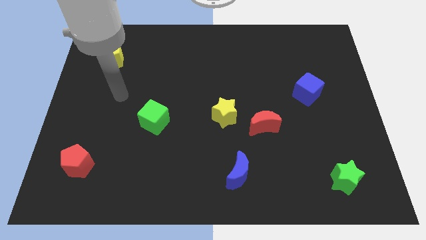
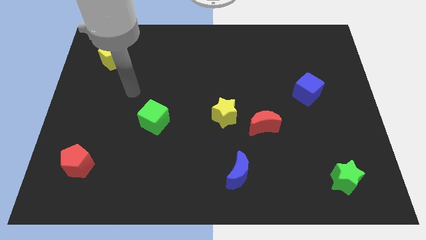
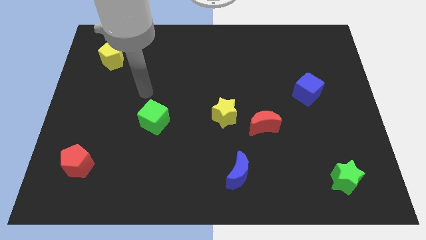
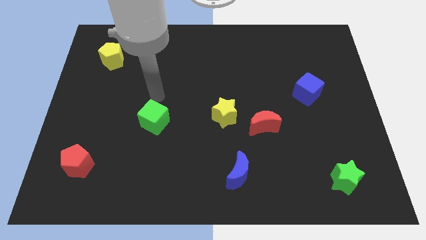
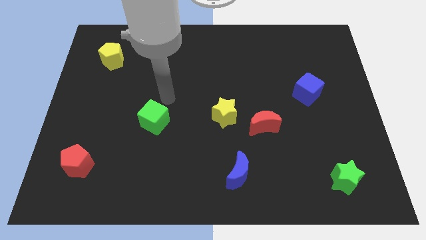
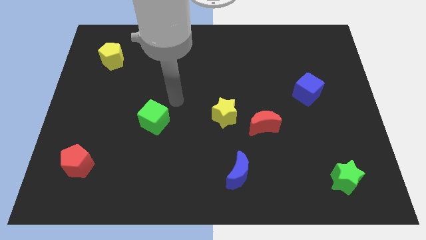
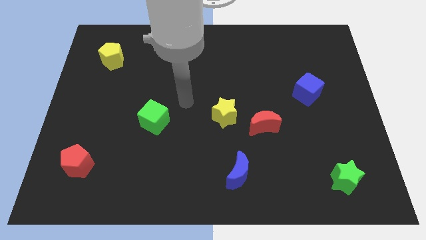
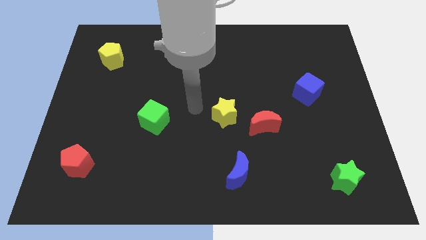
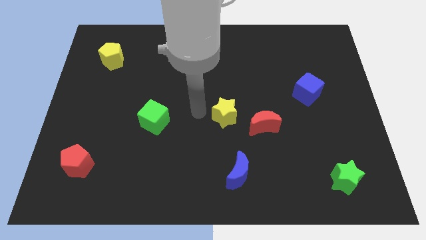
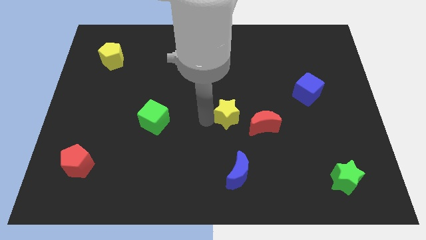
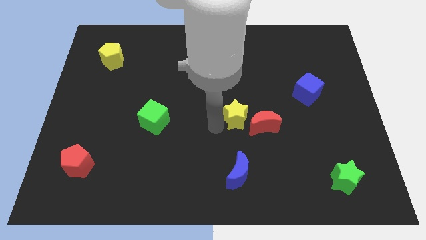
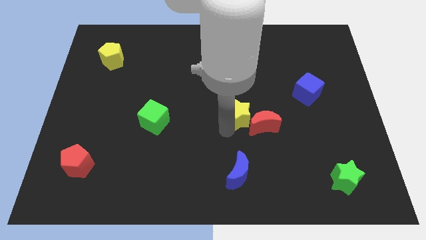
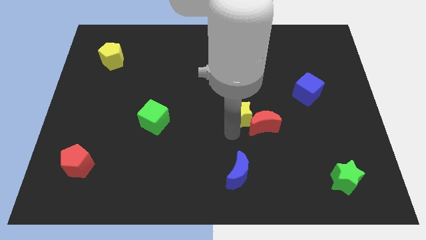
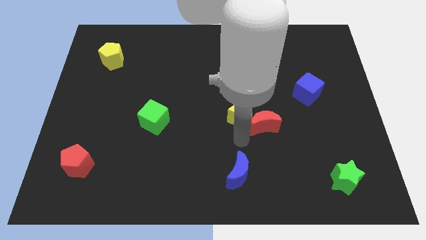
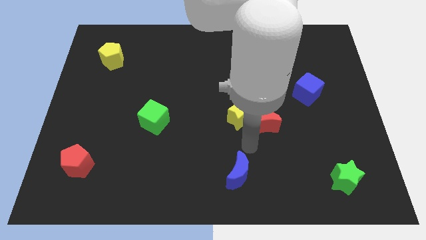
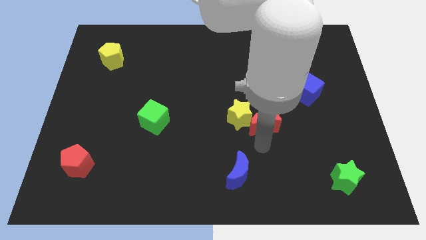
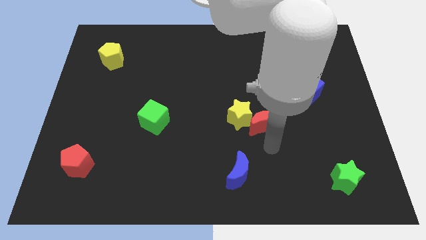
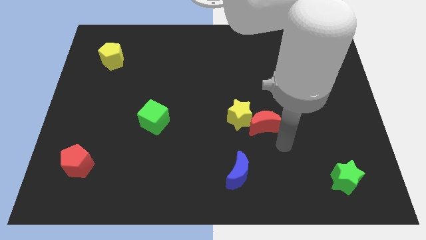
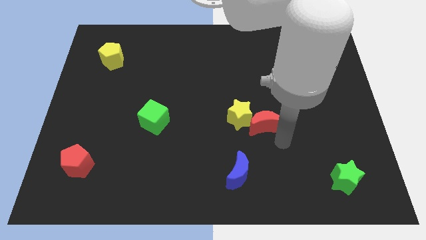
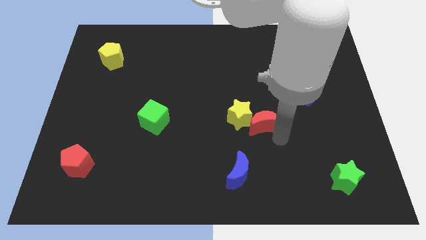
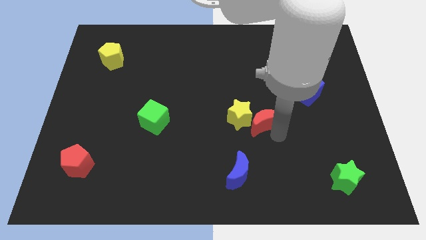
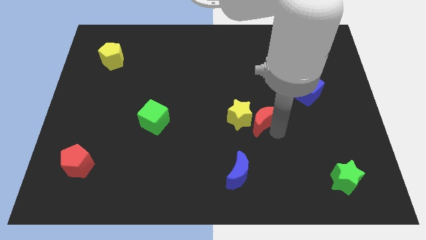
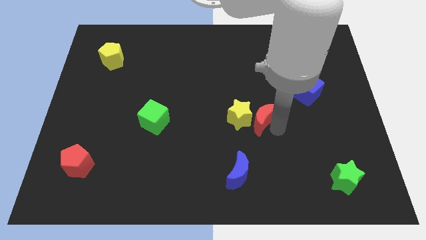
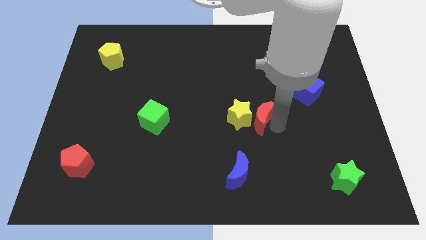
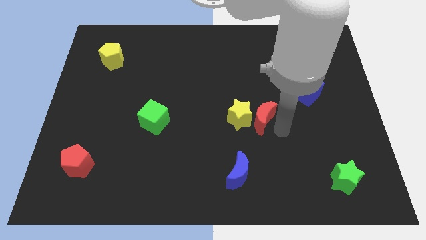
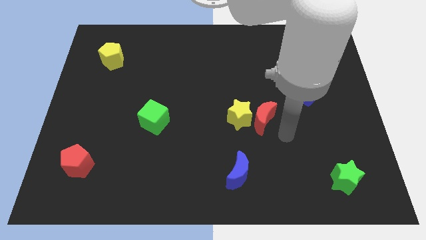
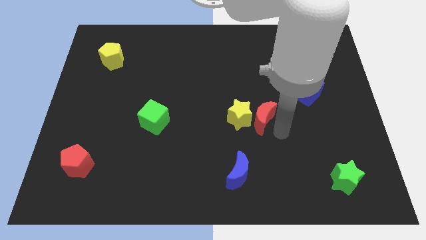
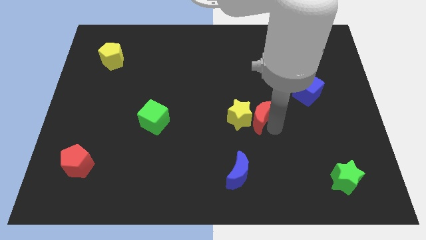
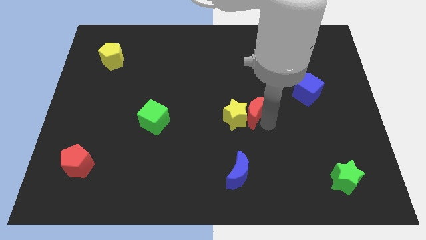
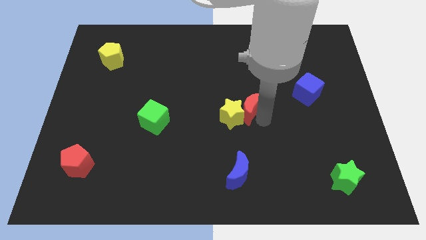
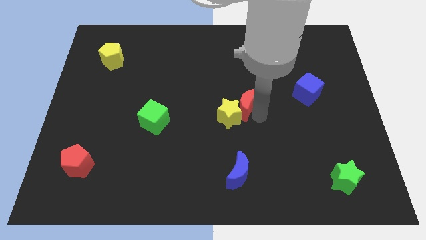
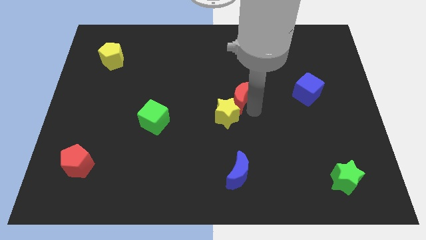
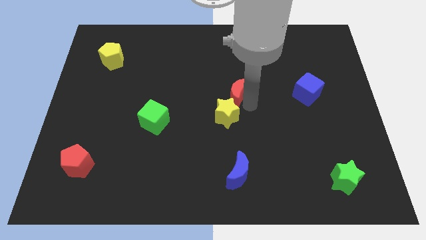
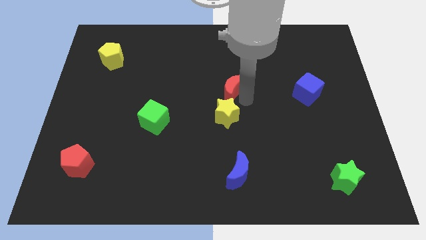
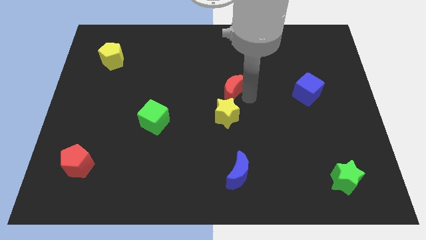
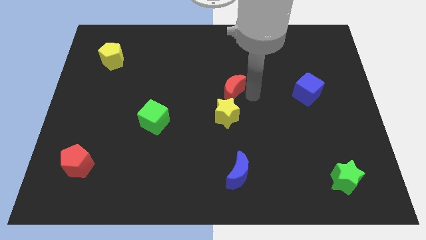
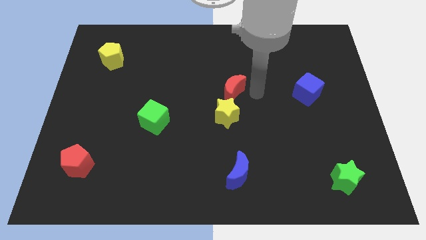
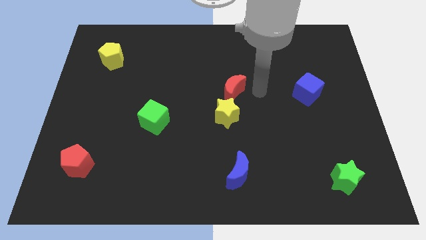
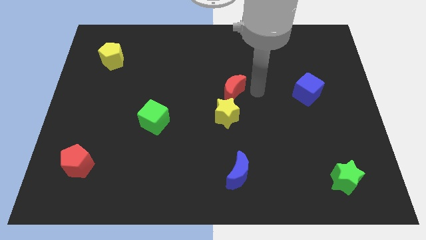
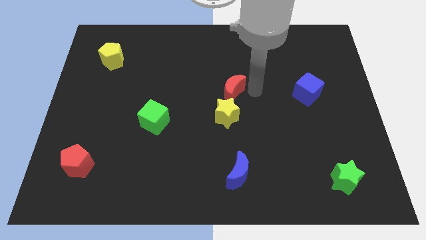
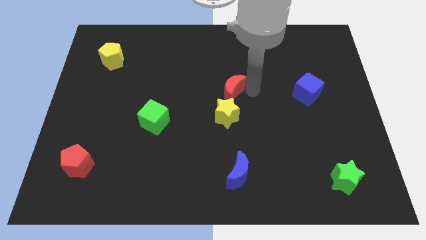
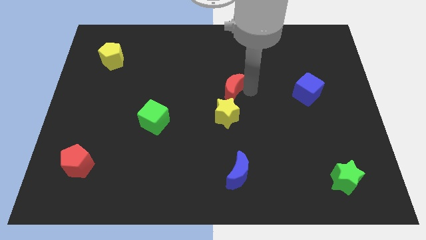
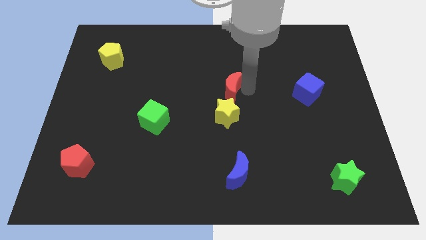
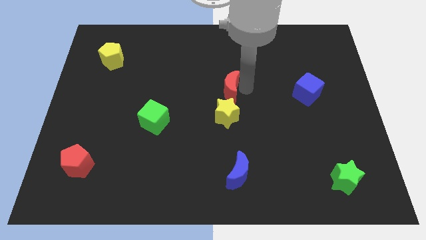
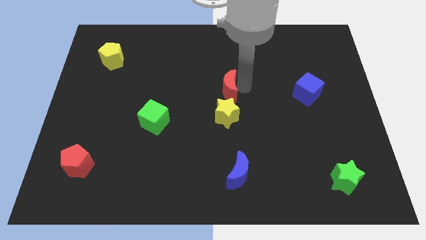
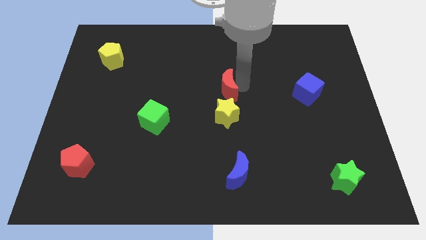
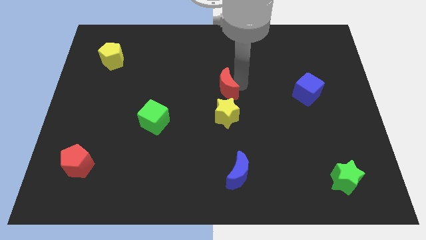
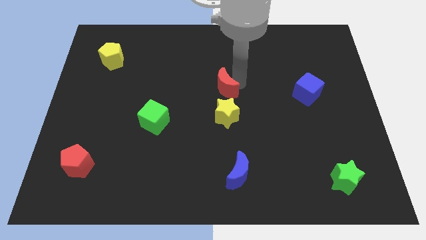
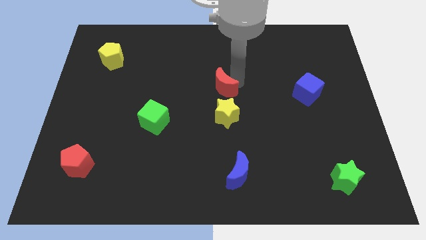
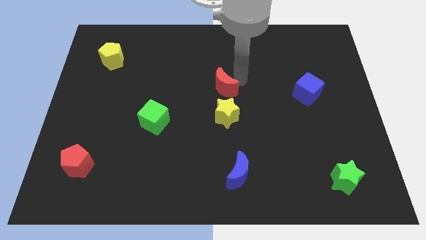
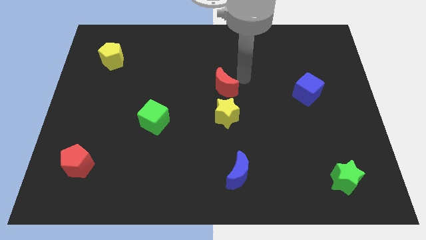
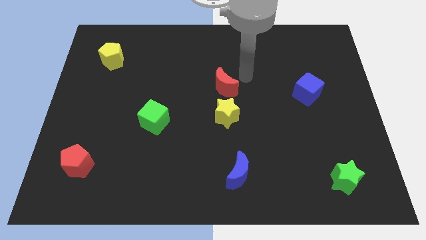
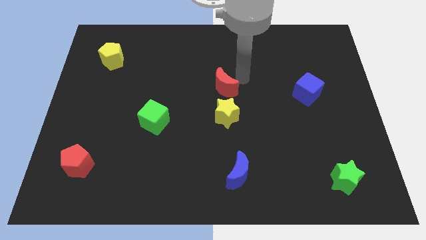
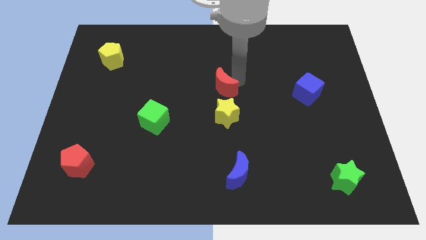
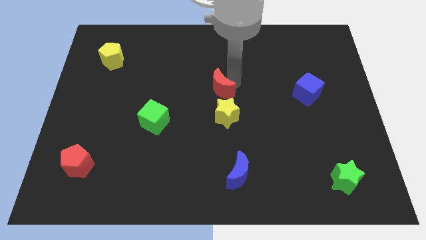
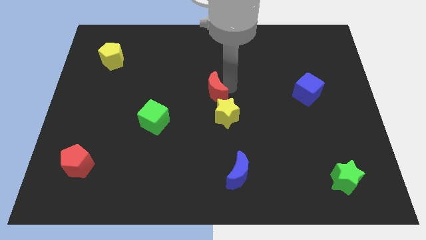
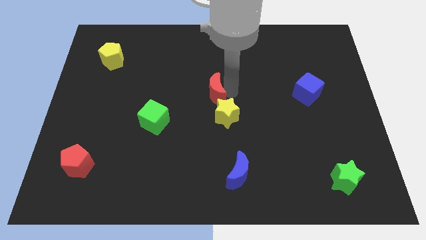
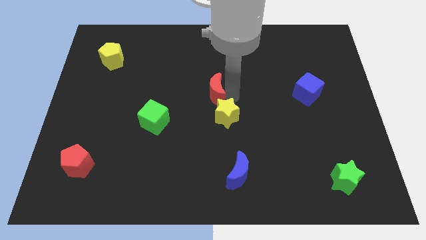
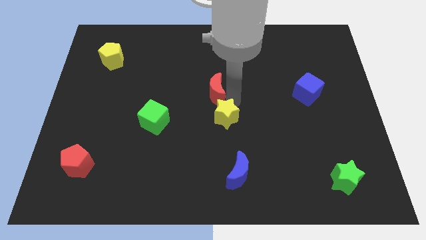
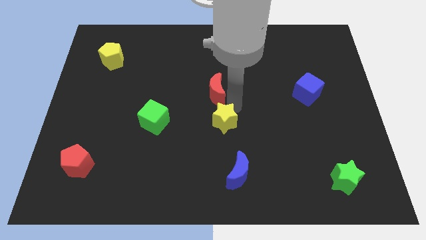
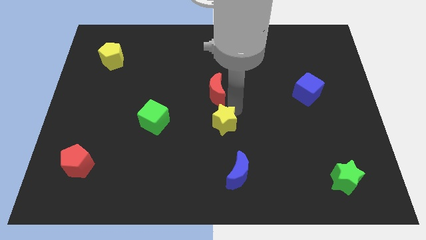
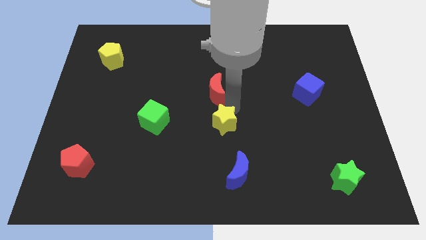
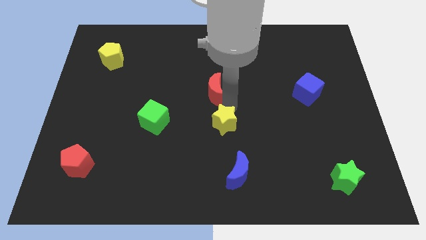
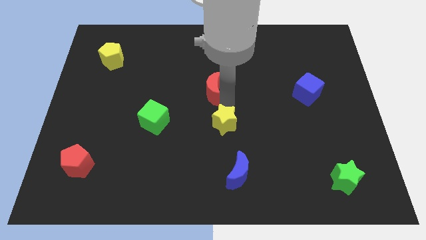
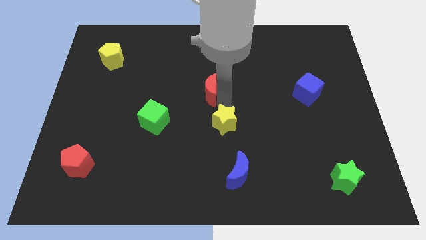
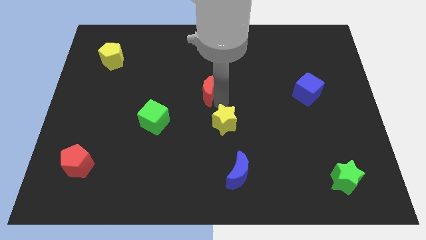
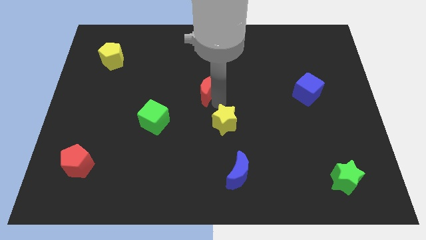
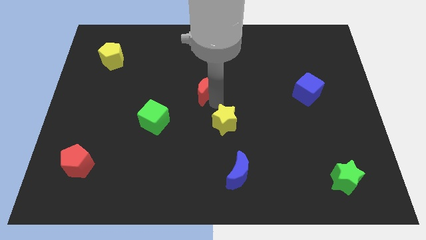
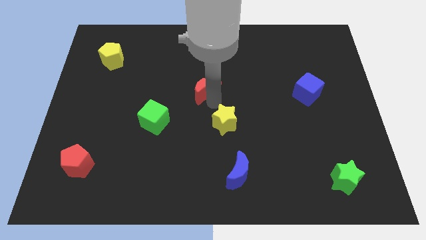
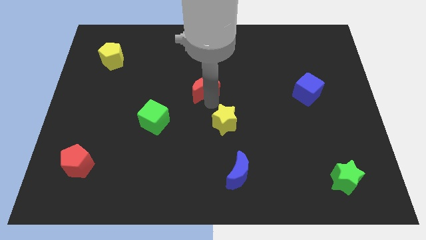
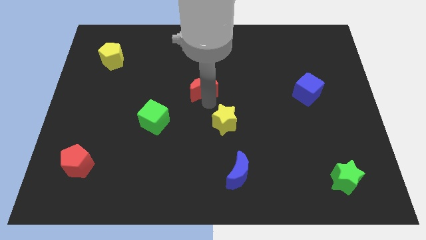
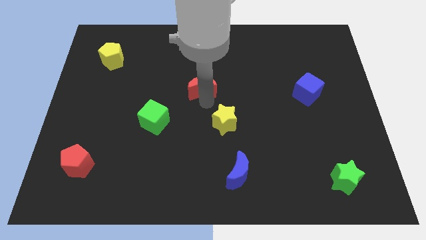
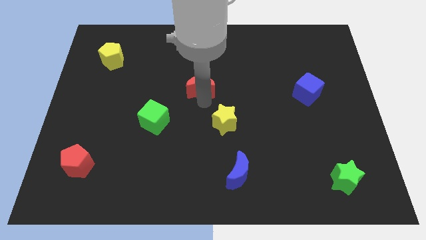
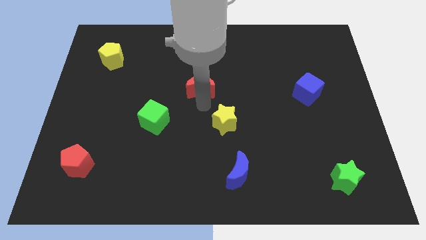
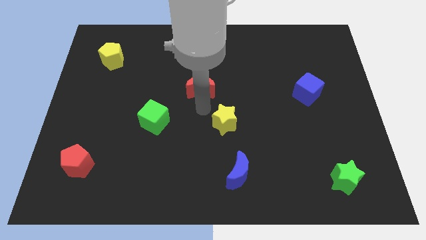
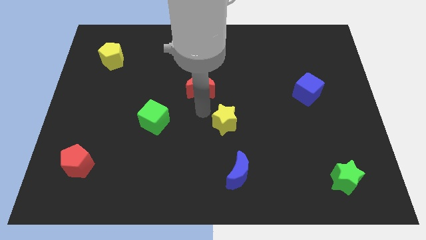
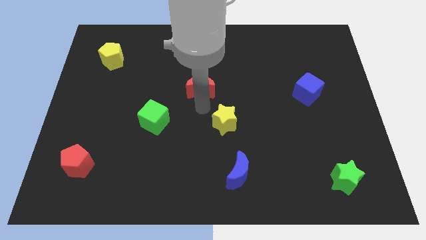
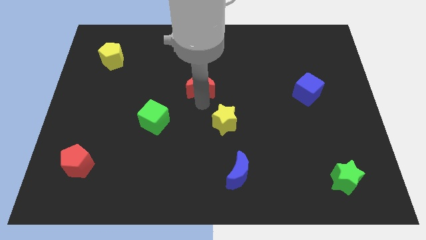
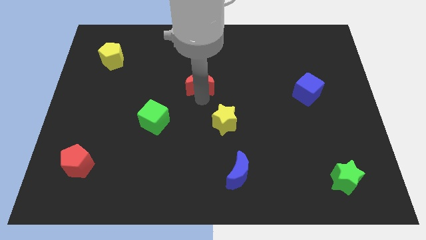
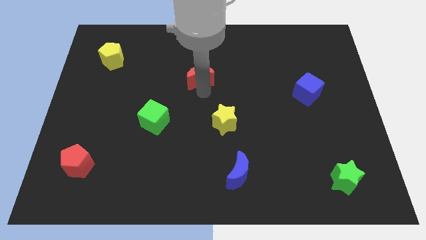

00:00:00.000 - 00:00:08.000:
push the red moon diagonally up and to the left
